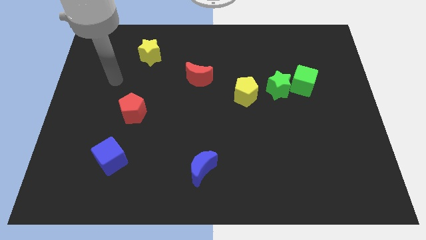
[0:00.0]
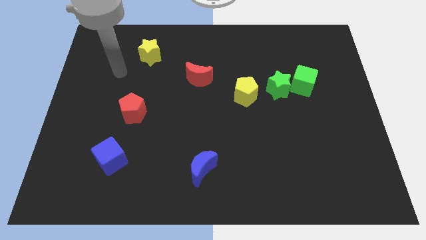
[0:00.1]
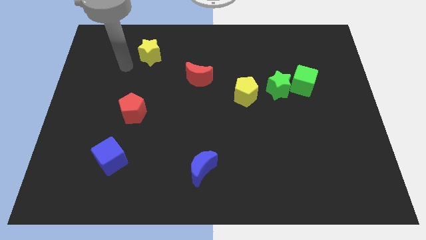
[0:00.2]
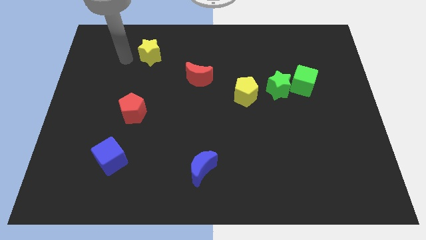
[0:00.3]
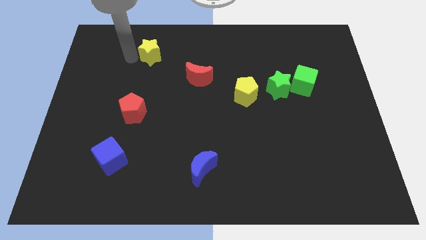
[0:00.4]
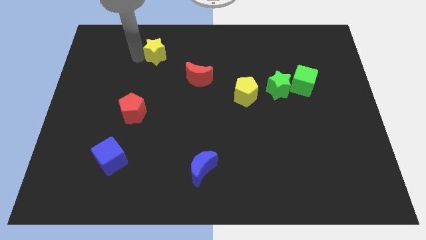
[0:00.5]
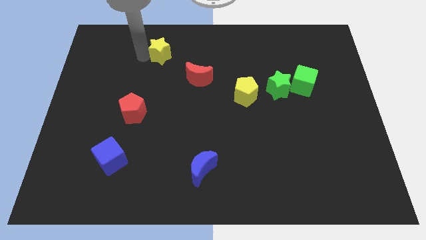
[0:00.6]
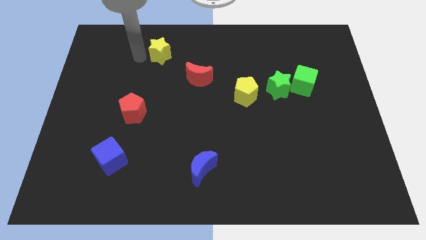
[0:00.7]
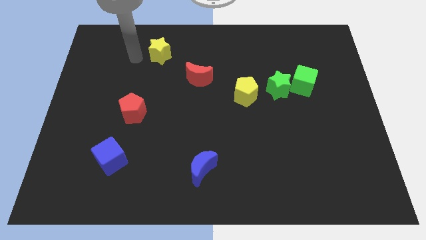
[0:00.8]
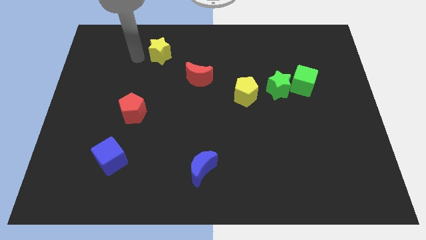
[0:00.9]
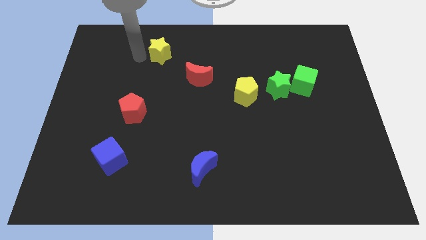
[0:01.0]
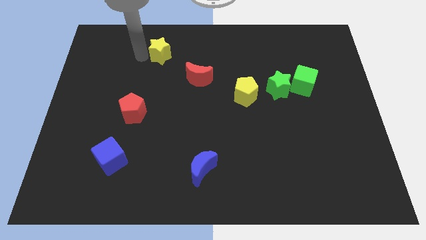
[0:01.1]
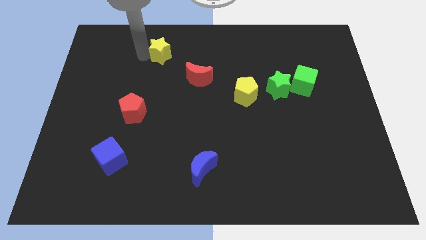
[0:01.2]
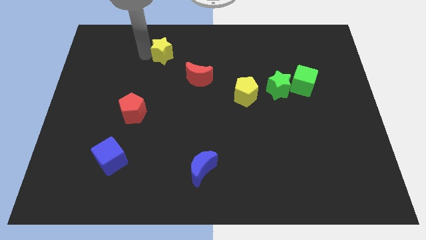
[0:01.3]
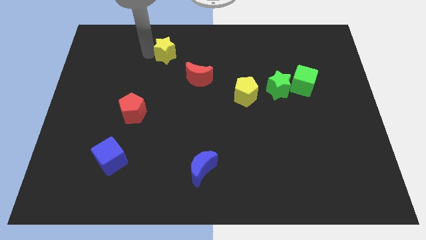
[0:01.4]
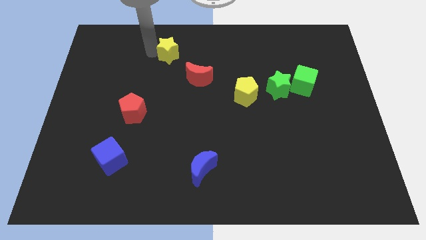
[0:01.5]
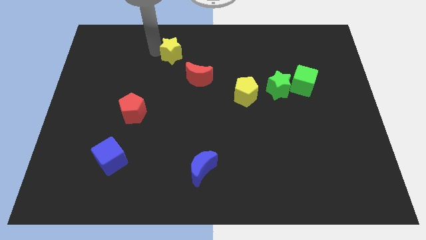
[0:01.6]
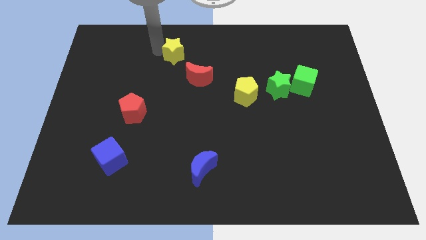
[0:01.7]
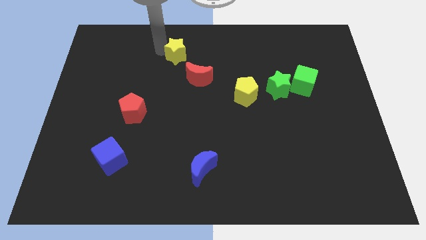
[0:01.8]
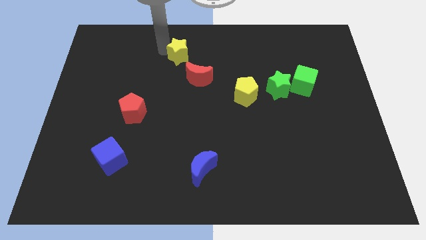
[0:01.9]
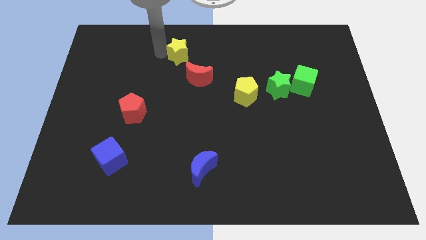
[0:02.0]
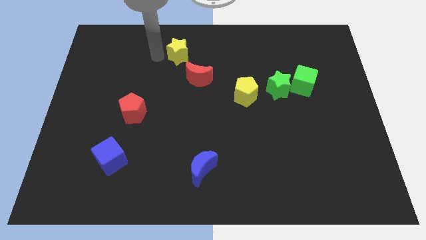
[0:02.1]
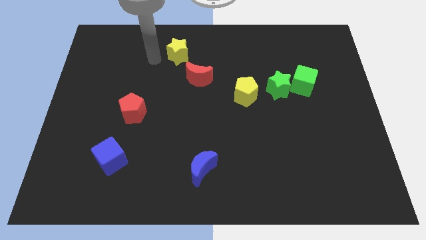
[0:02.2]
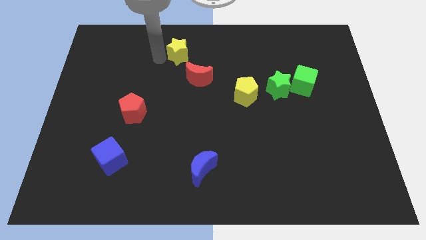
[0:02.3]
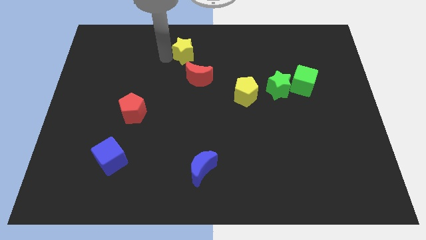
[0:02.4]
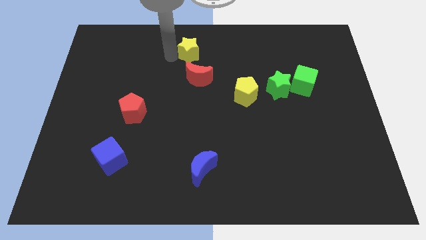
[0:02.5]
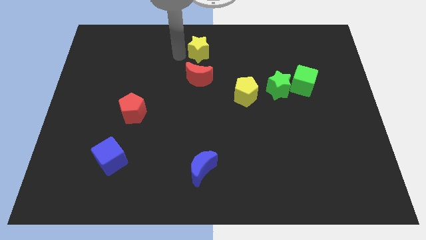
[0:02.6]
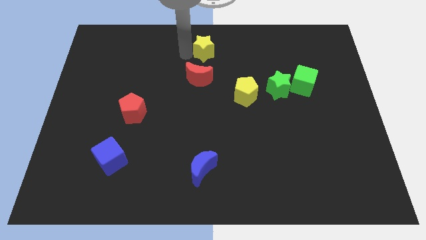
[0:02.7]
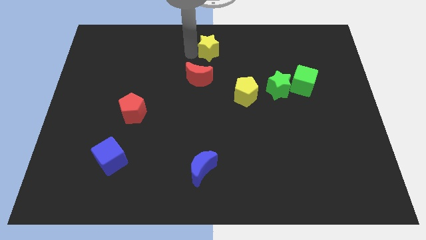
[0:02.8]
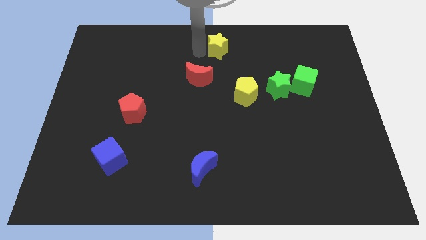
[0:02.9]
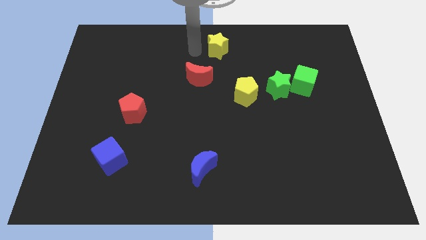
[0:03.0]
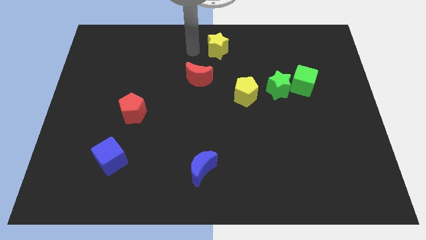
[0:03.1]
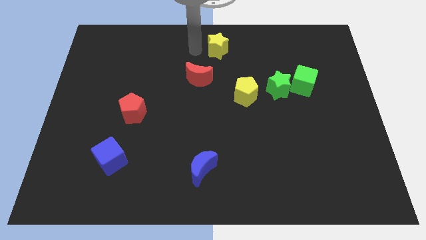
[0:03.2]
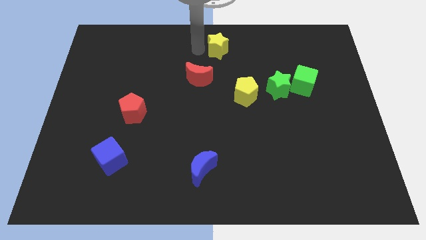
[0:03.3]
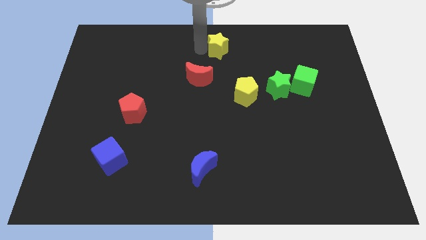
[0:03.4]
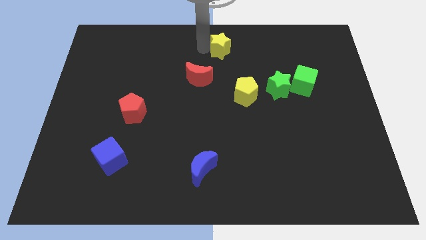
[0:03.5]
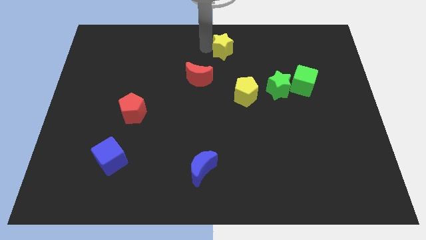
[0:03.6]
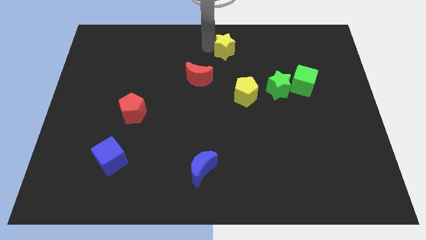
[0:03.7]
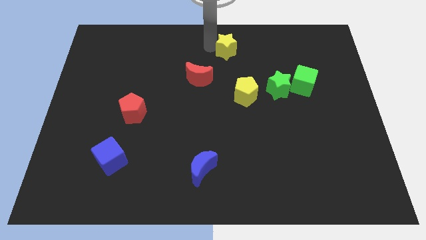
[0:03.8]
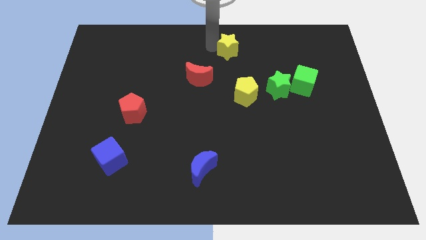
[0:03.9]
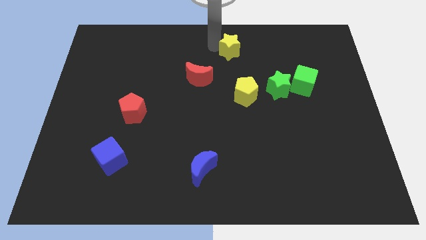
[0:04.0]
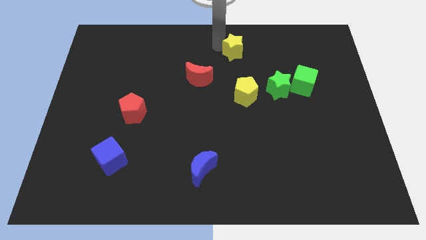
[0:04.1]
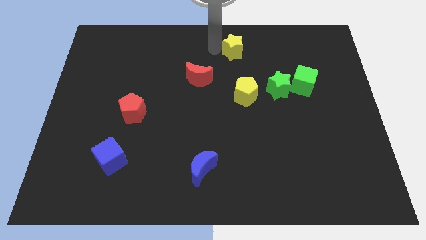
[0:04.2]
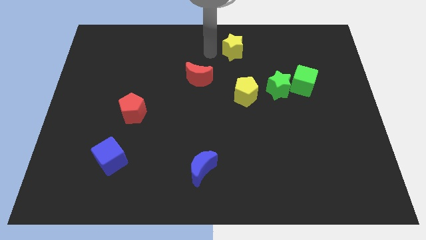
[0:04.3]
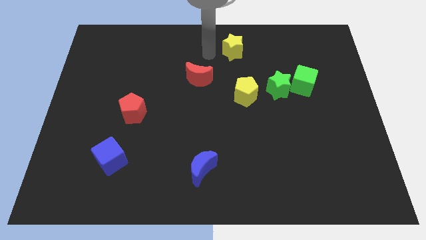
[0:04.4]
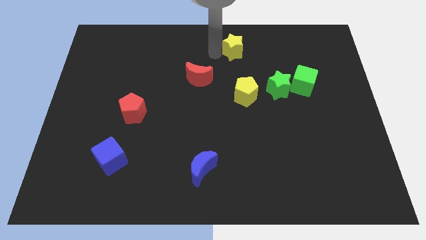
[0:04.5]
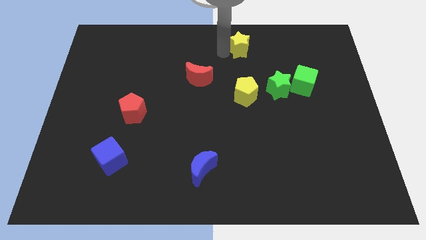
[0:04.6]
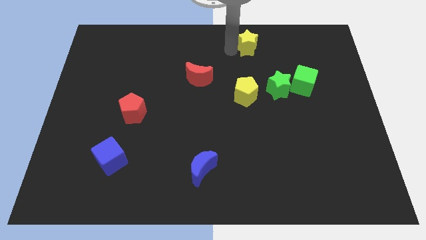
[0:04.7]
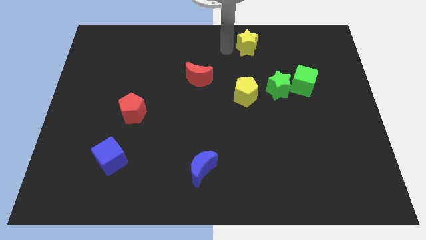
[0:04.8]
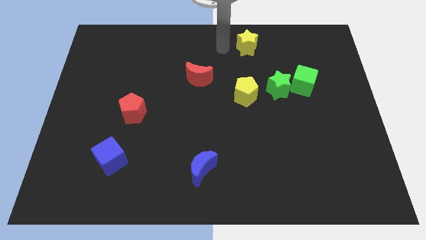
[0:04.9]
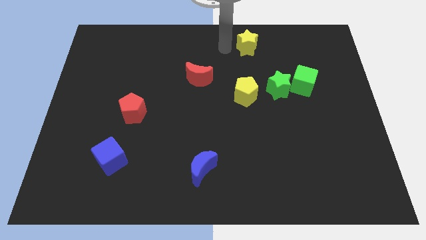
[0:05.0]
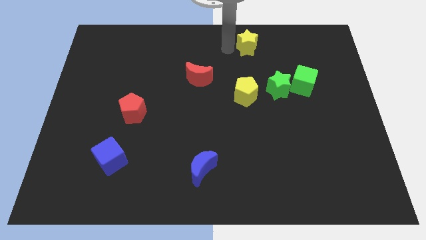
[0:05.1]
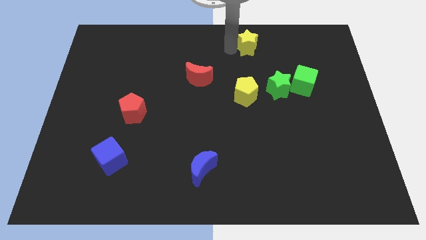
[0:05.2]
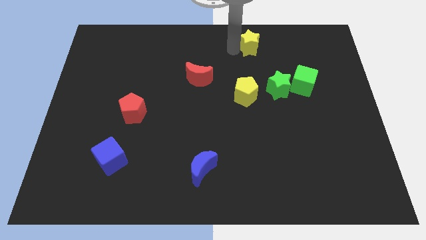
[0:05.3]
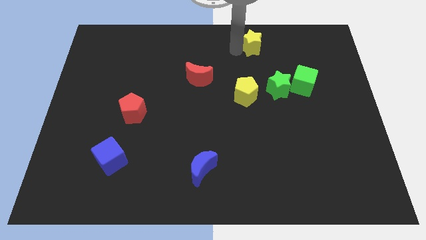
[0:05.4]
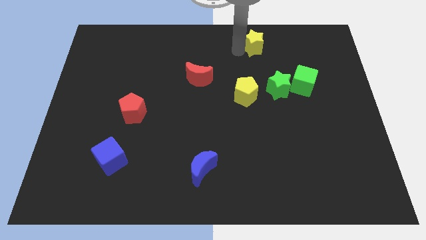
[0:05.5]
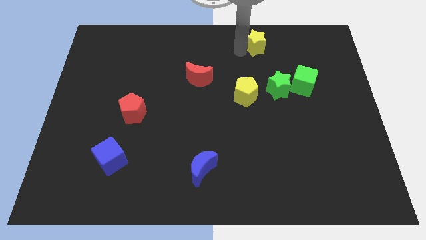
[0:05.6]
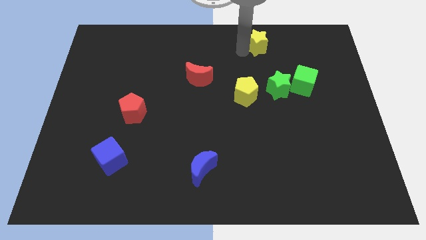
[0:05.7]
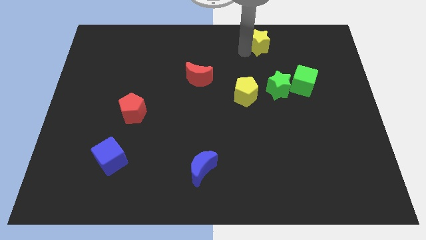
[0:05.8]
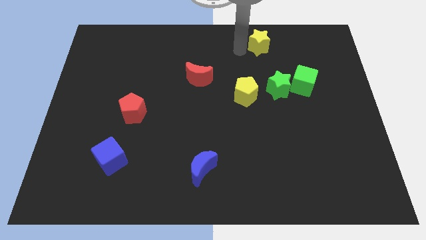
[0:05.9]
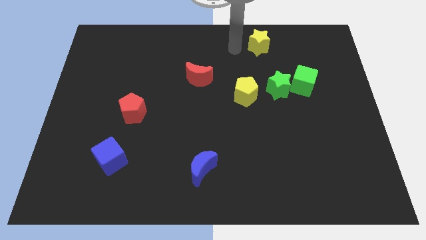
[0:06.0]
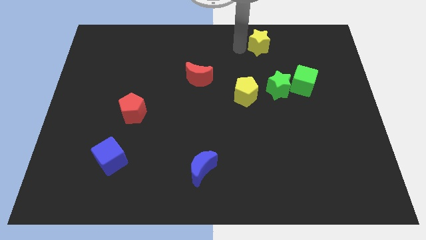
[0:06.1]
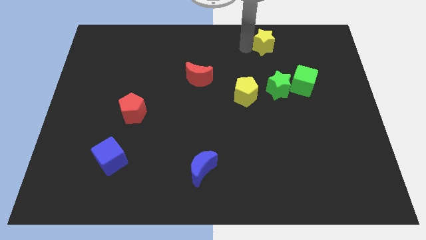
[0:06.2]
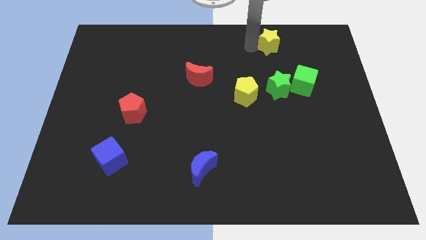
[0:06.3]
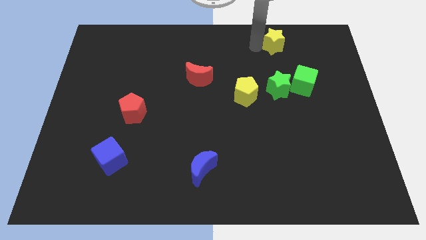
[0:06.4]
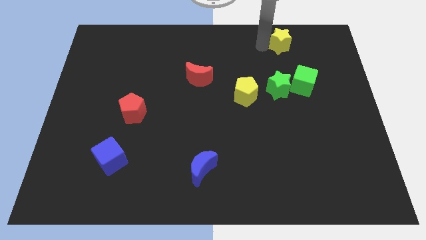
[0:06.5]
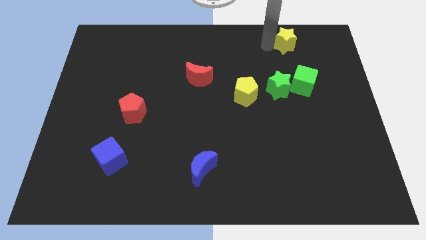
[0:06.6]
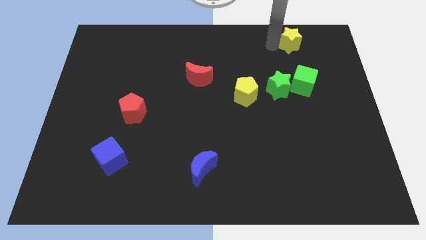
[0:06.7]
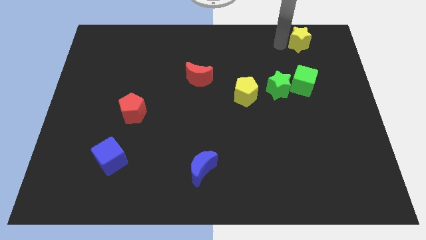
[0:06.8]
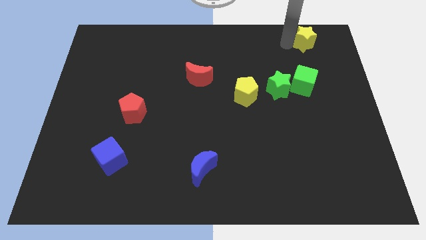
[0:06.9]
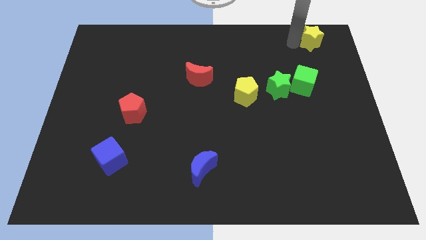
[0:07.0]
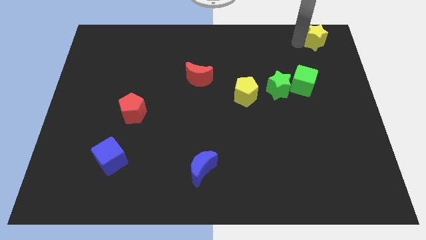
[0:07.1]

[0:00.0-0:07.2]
slide the yellow star to the top right corner
